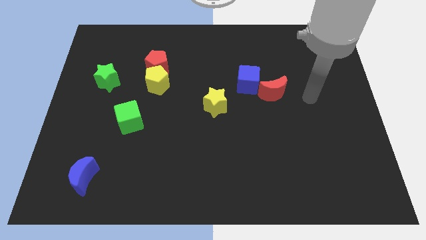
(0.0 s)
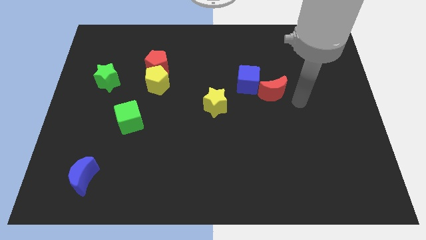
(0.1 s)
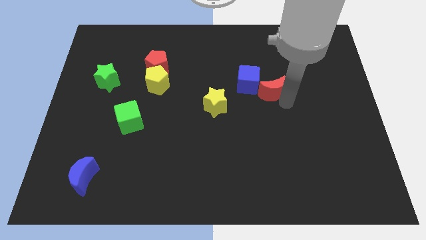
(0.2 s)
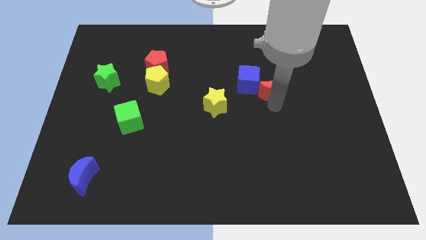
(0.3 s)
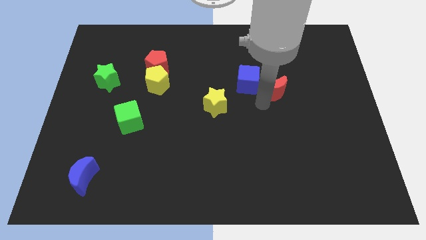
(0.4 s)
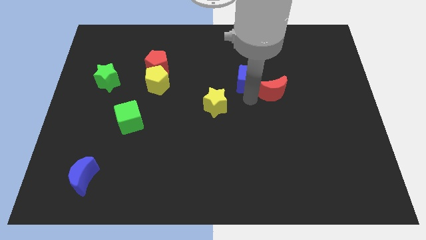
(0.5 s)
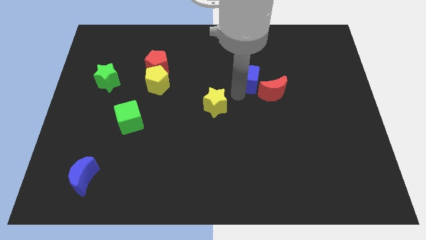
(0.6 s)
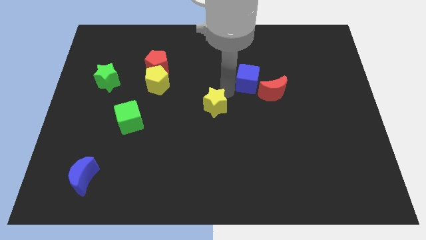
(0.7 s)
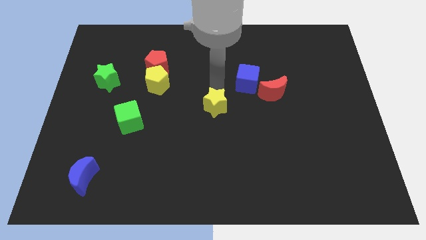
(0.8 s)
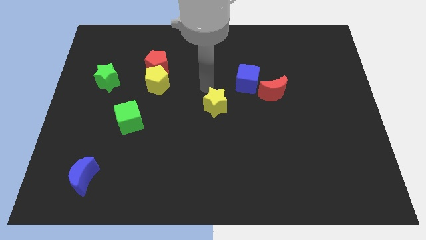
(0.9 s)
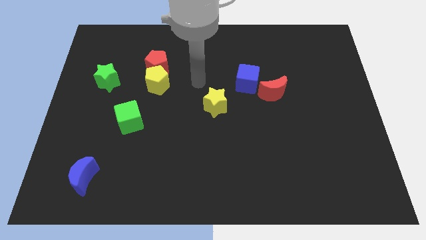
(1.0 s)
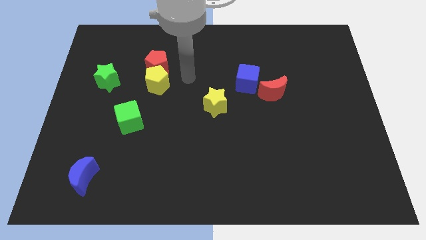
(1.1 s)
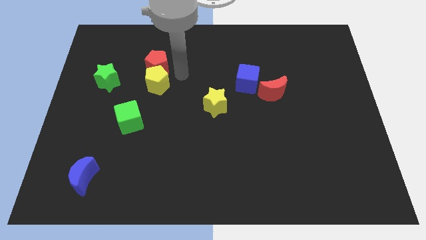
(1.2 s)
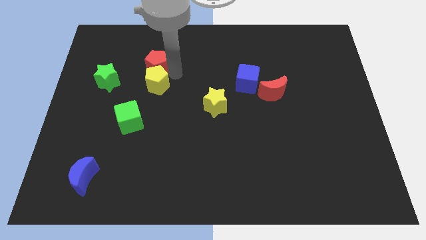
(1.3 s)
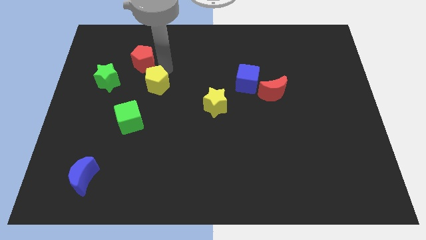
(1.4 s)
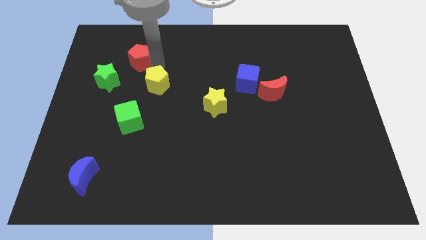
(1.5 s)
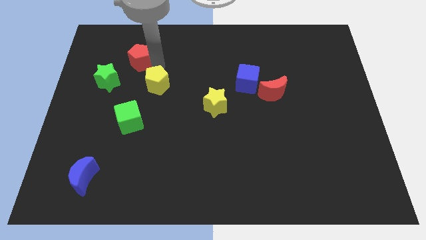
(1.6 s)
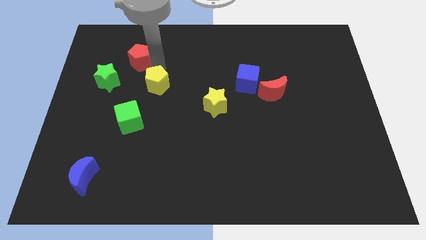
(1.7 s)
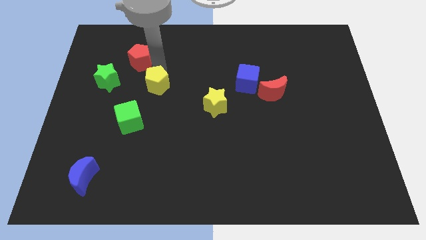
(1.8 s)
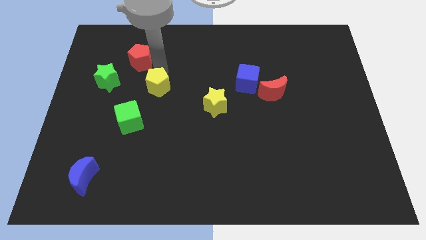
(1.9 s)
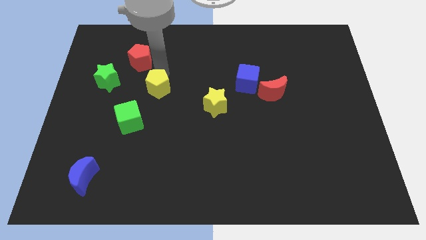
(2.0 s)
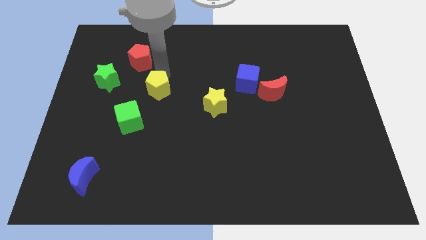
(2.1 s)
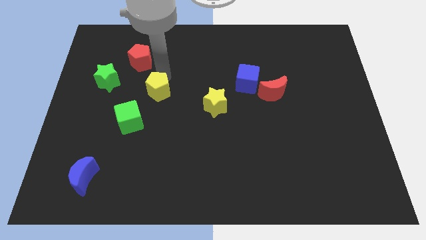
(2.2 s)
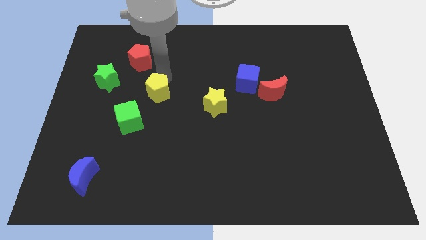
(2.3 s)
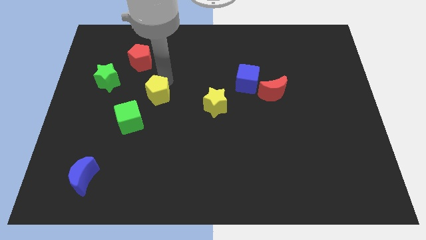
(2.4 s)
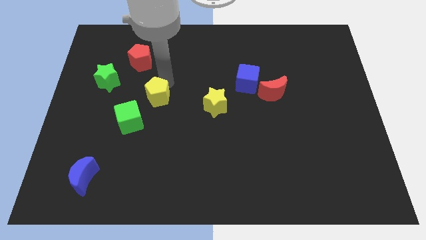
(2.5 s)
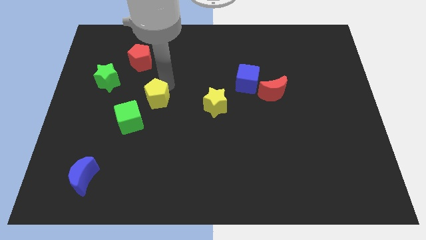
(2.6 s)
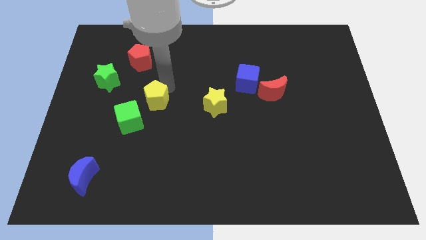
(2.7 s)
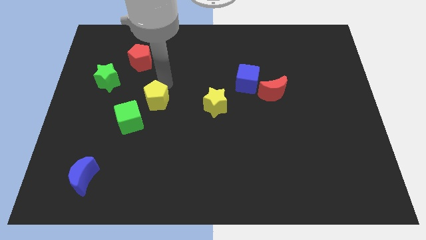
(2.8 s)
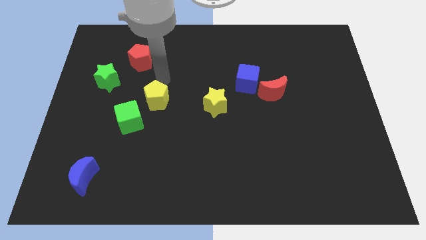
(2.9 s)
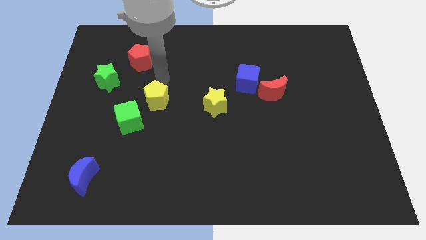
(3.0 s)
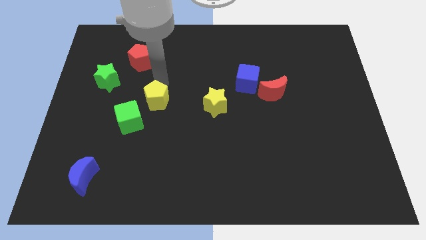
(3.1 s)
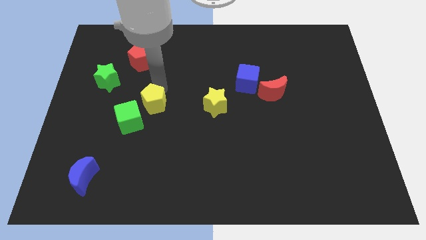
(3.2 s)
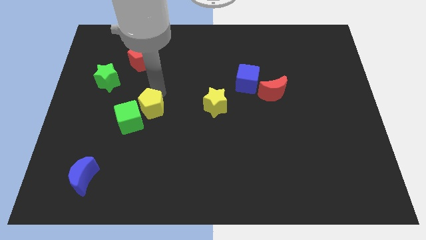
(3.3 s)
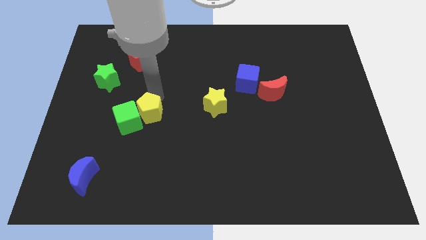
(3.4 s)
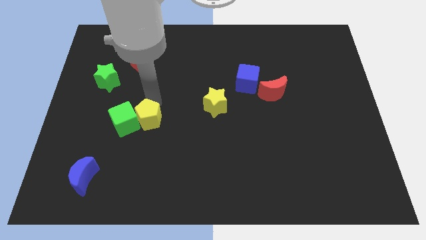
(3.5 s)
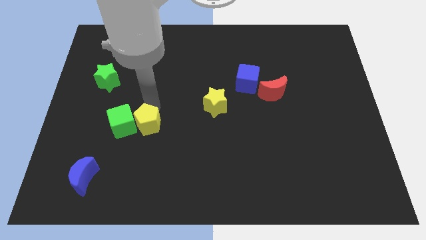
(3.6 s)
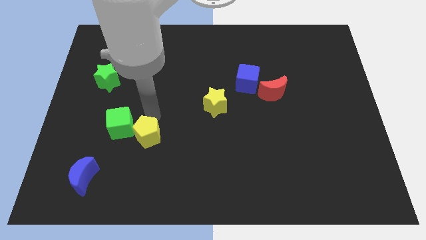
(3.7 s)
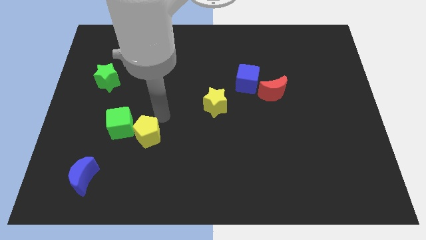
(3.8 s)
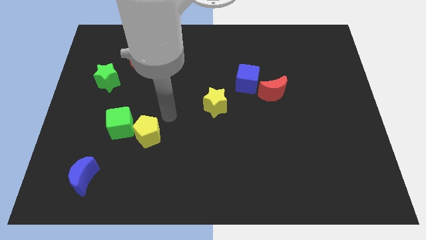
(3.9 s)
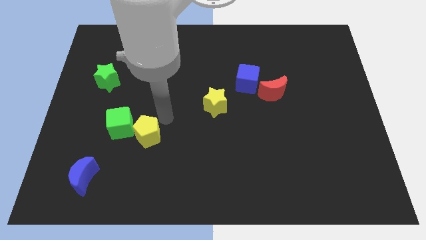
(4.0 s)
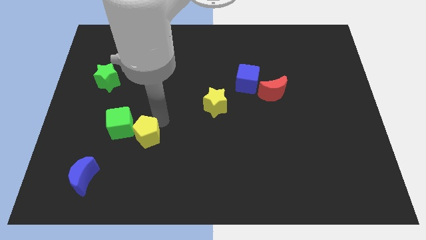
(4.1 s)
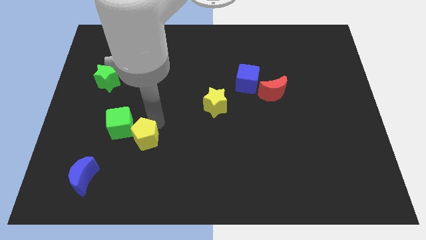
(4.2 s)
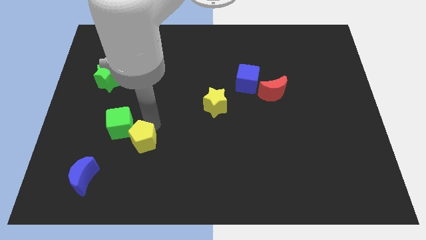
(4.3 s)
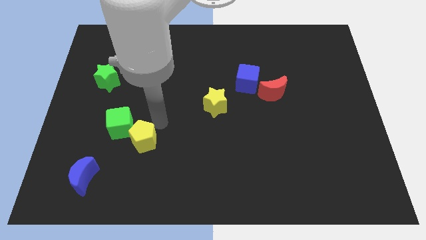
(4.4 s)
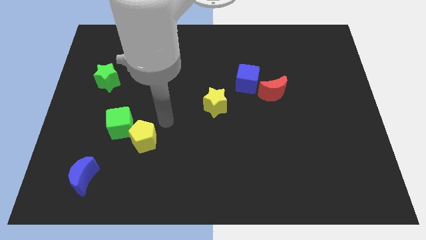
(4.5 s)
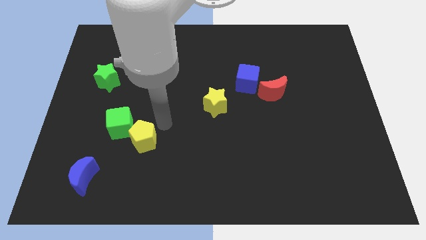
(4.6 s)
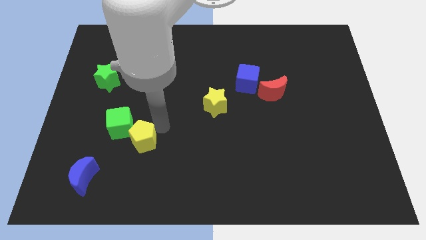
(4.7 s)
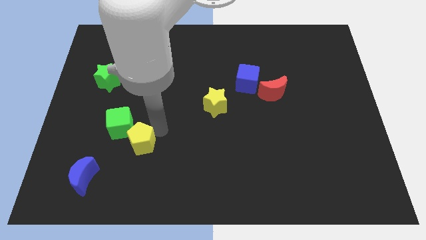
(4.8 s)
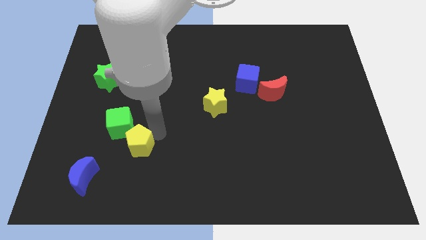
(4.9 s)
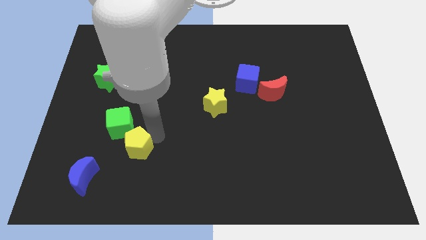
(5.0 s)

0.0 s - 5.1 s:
put the yellow pentagon below the green cube

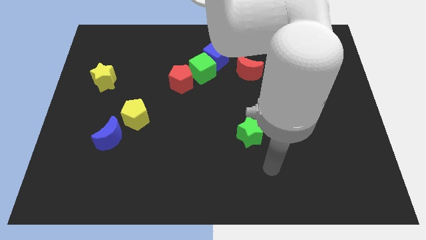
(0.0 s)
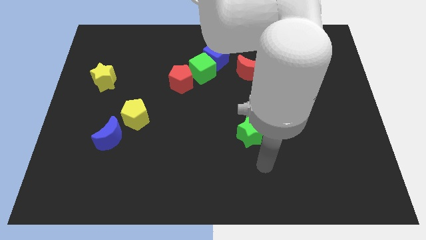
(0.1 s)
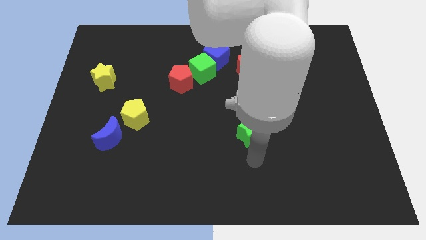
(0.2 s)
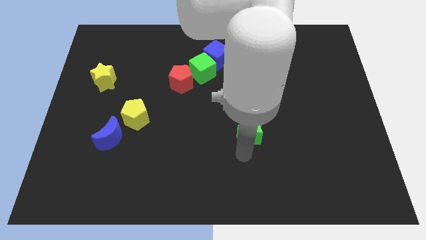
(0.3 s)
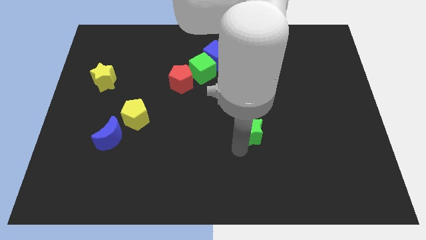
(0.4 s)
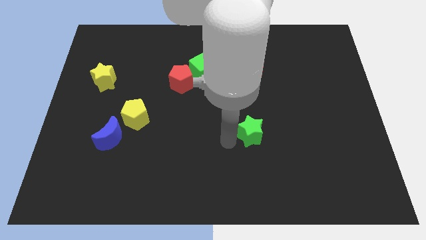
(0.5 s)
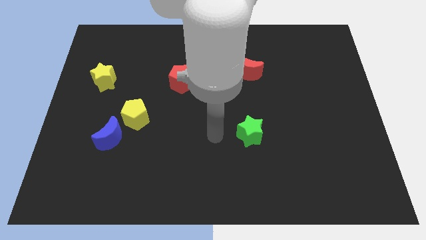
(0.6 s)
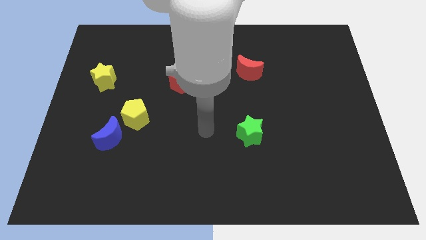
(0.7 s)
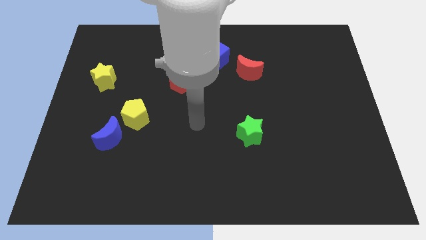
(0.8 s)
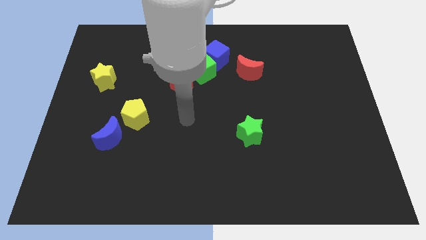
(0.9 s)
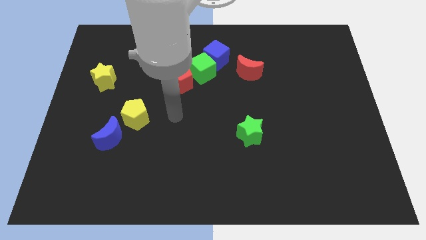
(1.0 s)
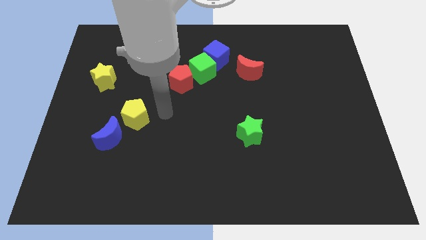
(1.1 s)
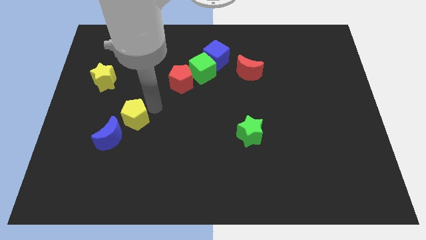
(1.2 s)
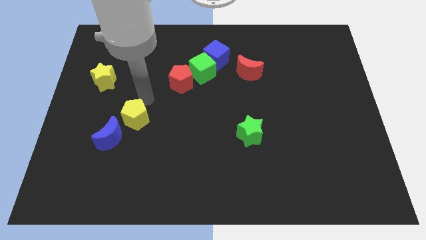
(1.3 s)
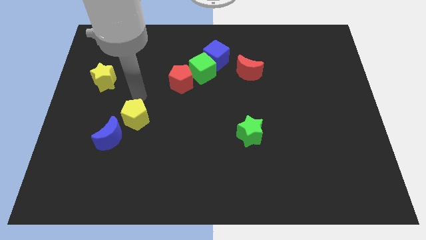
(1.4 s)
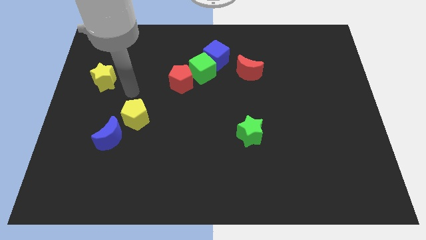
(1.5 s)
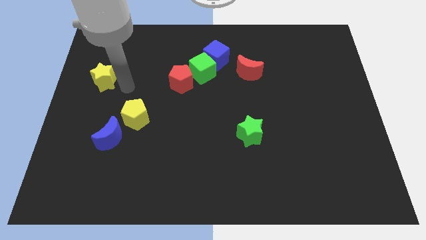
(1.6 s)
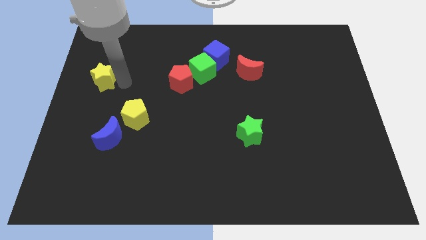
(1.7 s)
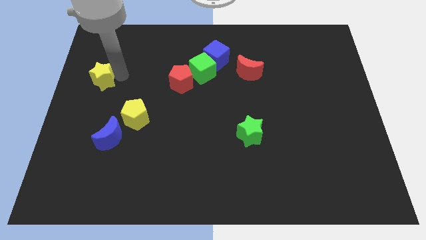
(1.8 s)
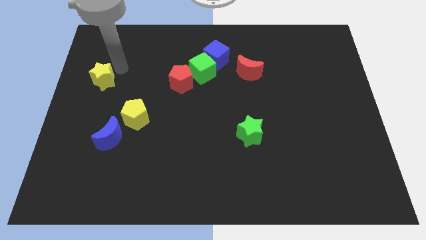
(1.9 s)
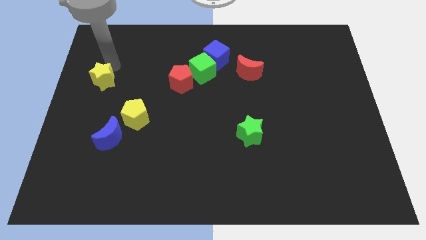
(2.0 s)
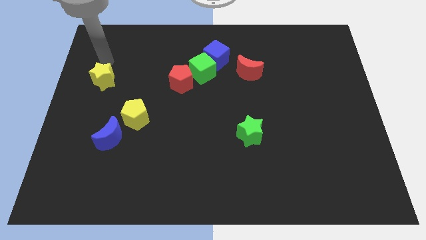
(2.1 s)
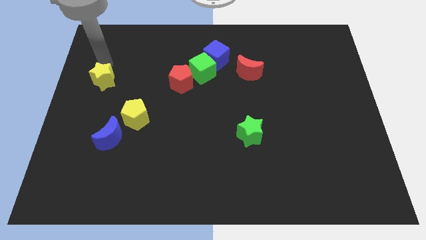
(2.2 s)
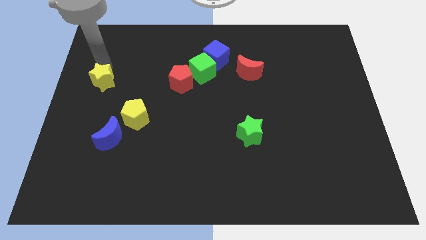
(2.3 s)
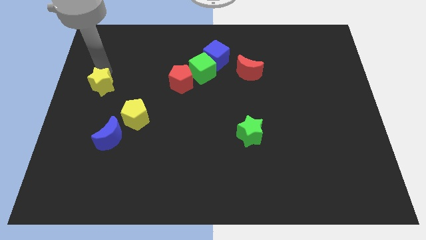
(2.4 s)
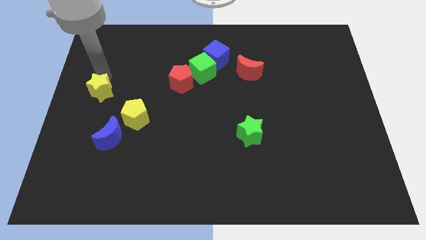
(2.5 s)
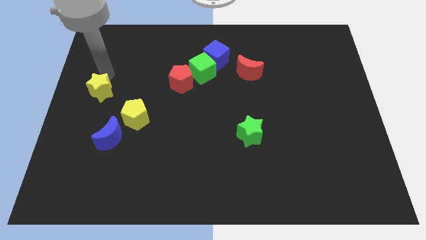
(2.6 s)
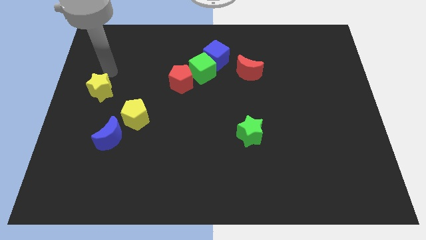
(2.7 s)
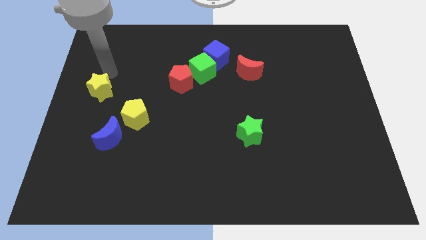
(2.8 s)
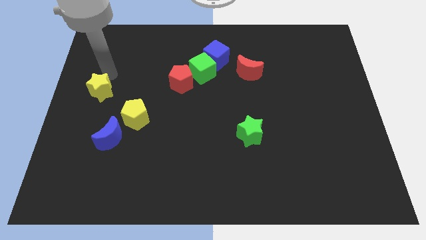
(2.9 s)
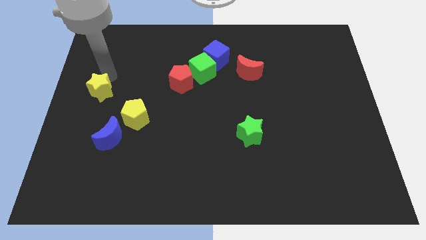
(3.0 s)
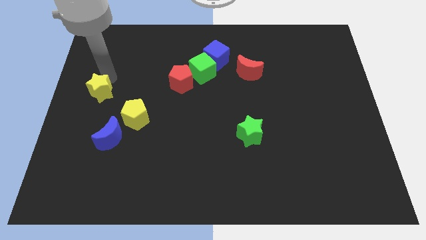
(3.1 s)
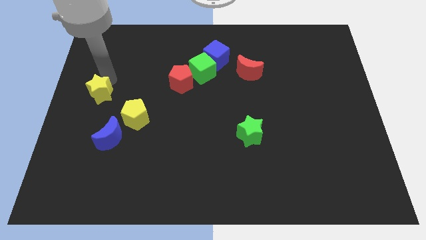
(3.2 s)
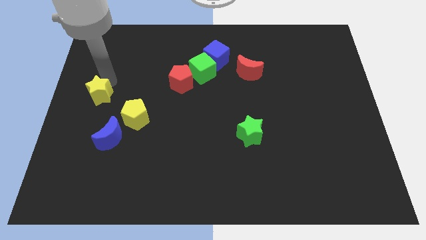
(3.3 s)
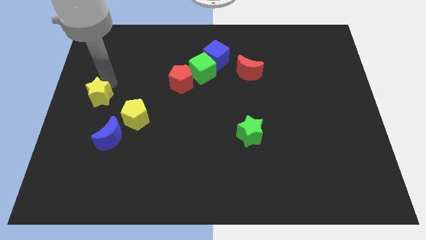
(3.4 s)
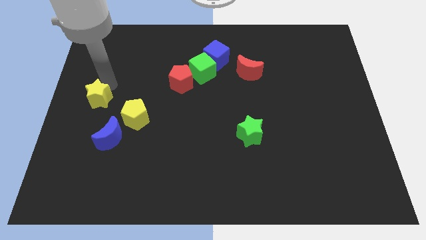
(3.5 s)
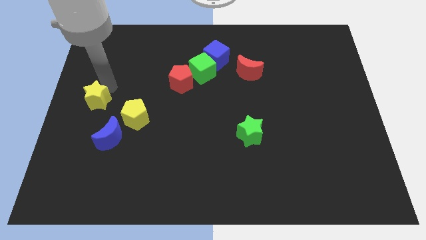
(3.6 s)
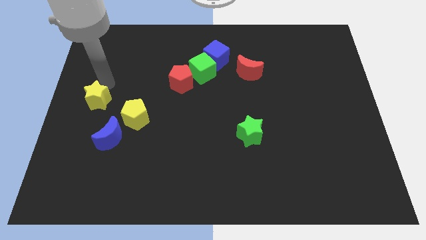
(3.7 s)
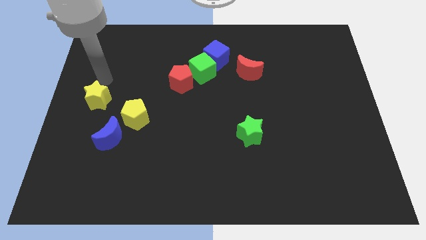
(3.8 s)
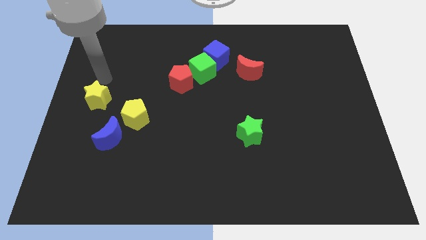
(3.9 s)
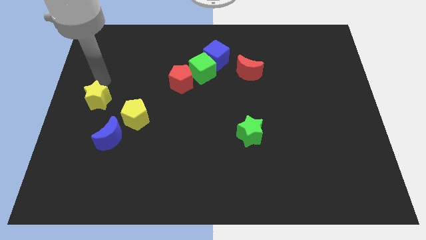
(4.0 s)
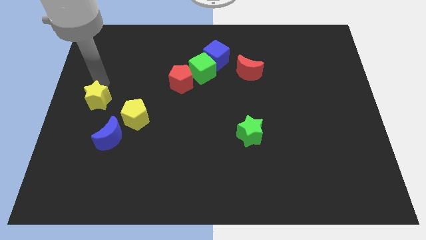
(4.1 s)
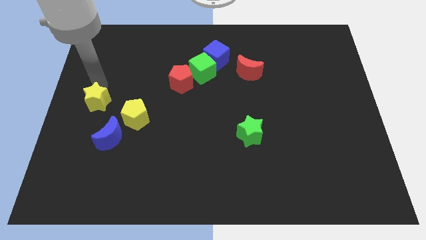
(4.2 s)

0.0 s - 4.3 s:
slide the yellow star to the left of the yellow pentagon
